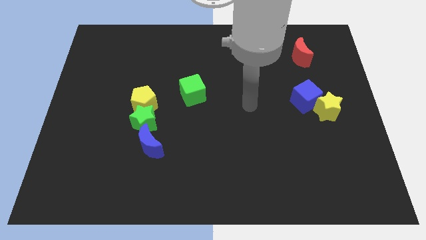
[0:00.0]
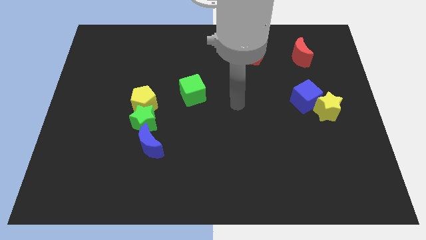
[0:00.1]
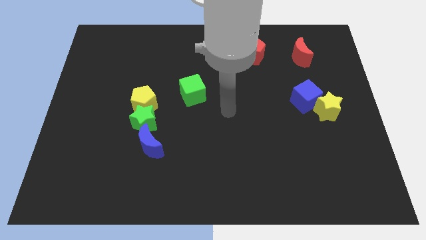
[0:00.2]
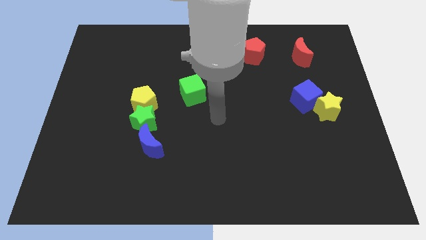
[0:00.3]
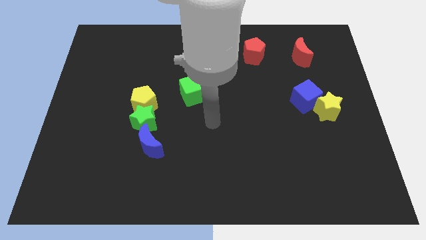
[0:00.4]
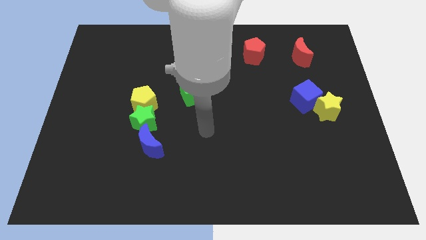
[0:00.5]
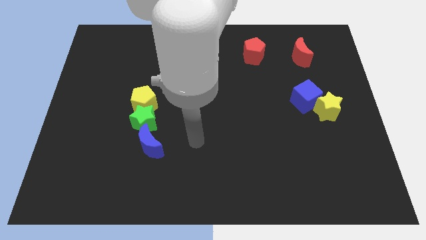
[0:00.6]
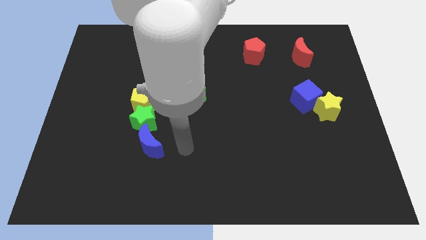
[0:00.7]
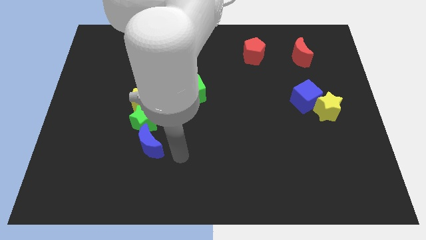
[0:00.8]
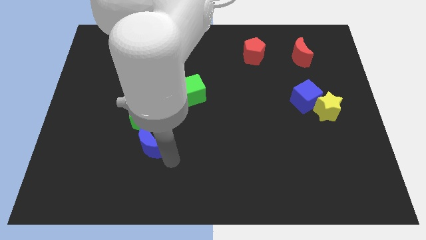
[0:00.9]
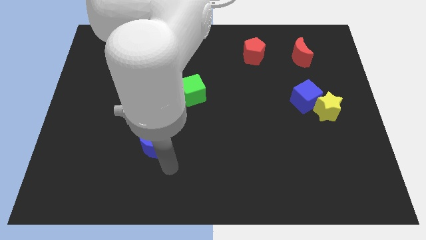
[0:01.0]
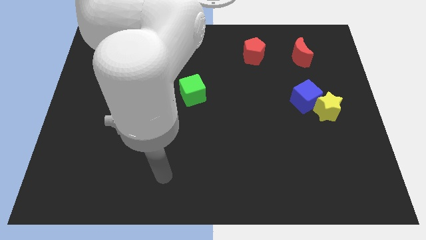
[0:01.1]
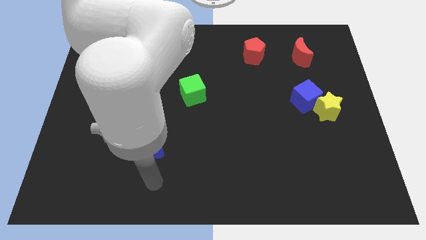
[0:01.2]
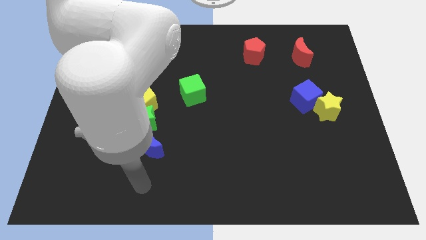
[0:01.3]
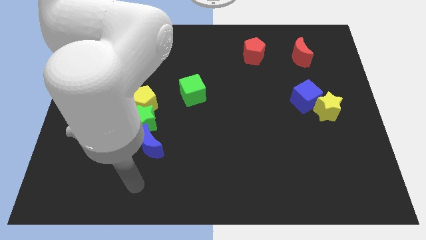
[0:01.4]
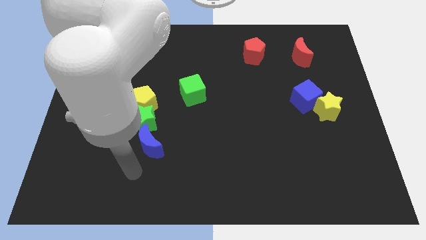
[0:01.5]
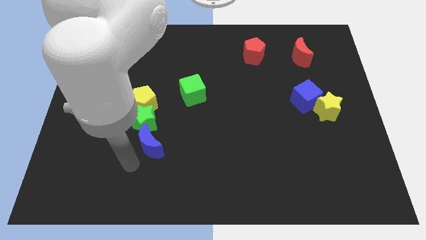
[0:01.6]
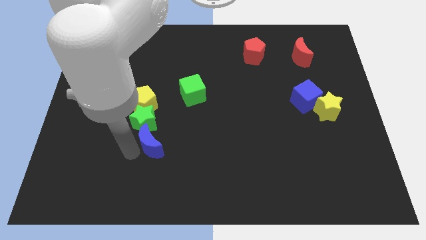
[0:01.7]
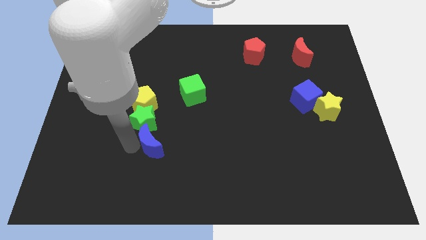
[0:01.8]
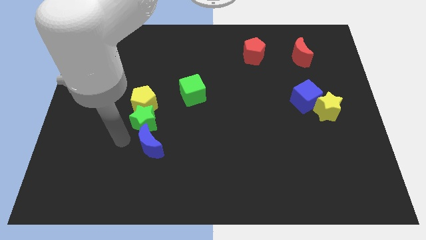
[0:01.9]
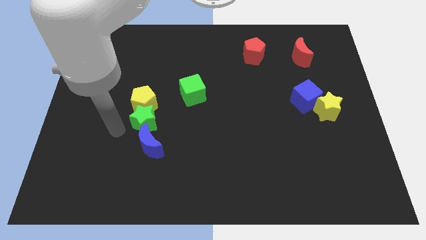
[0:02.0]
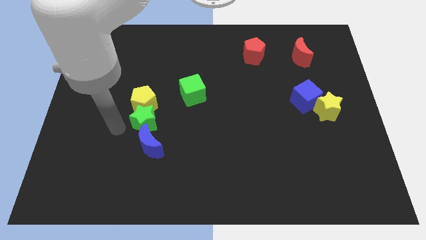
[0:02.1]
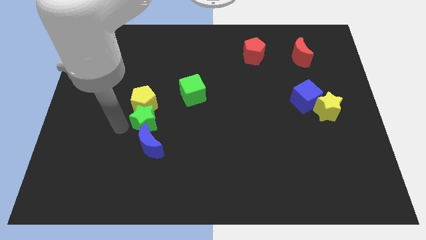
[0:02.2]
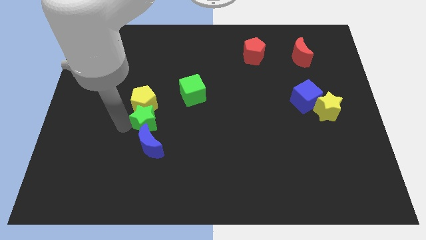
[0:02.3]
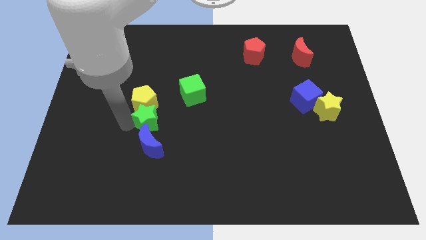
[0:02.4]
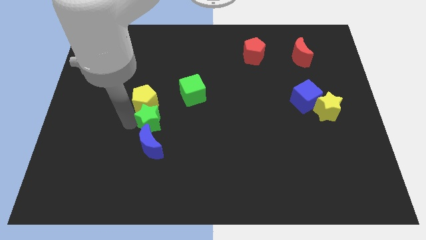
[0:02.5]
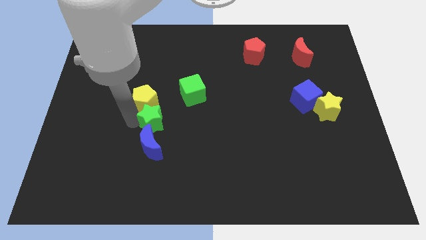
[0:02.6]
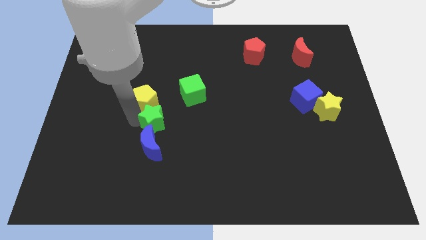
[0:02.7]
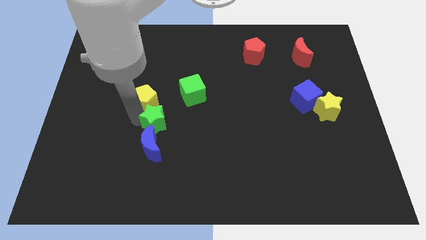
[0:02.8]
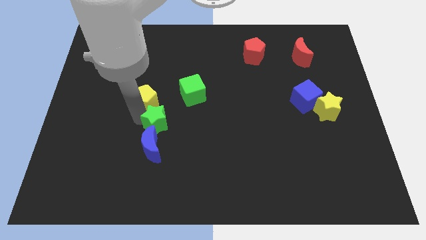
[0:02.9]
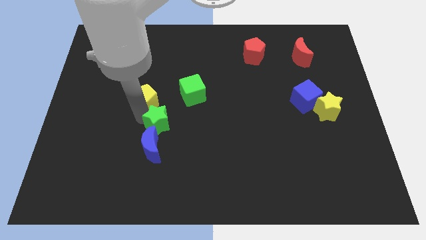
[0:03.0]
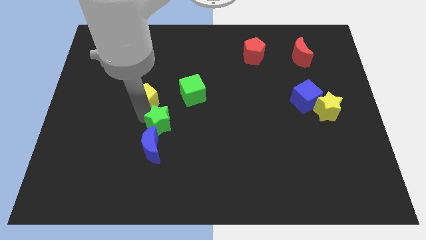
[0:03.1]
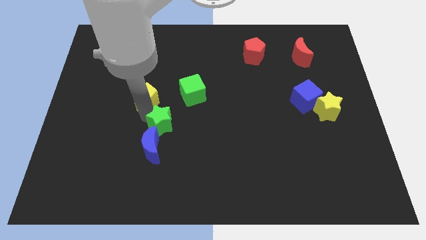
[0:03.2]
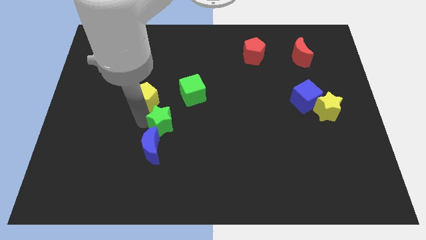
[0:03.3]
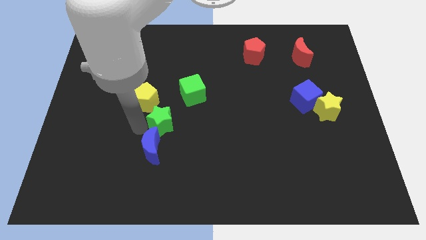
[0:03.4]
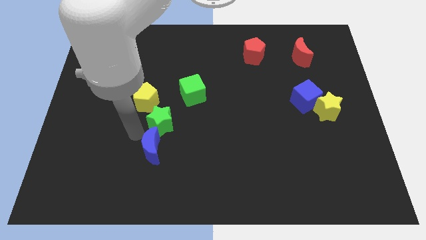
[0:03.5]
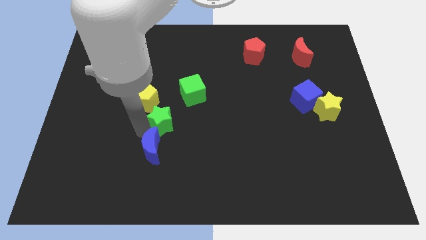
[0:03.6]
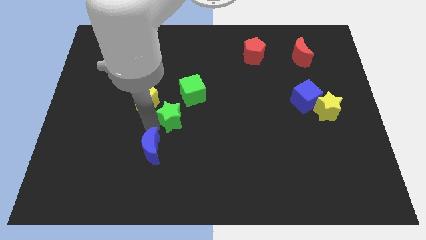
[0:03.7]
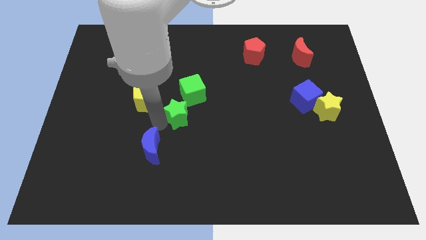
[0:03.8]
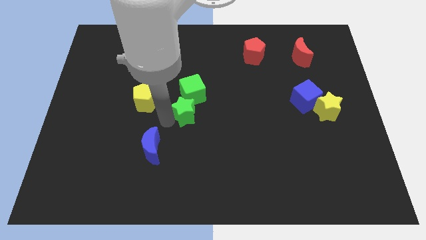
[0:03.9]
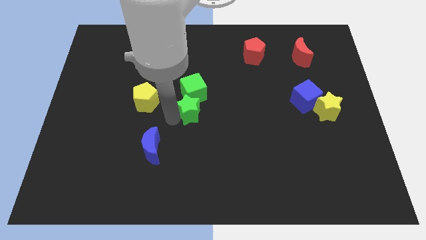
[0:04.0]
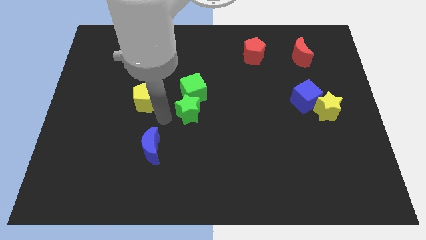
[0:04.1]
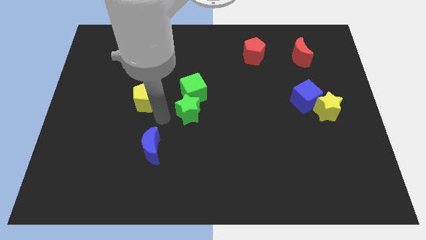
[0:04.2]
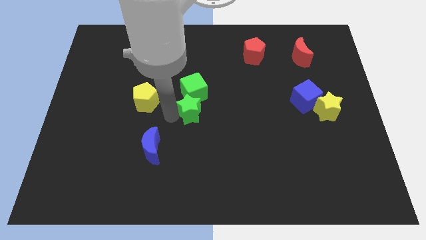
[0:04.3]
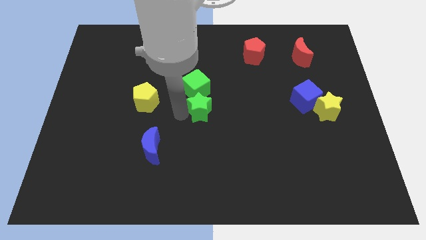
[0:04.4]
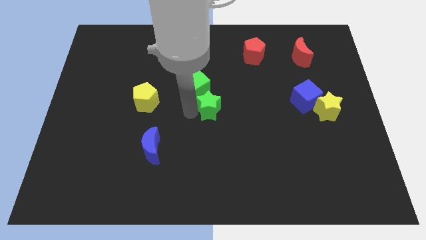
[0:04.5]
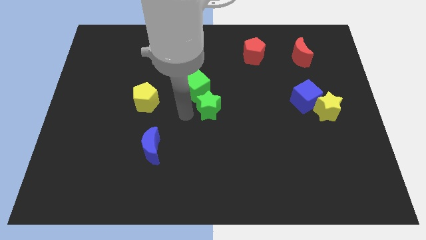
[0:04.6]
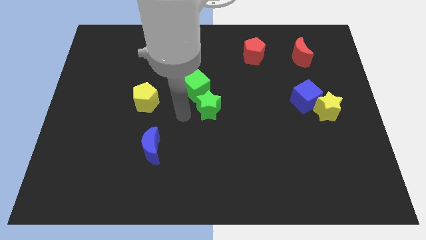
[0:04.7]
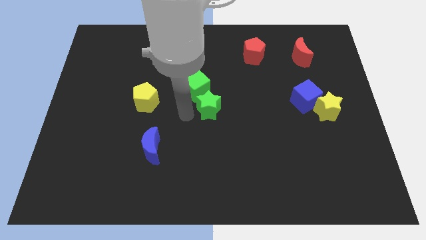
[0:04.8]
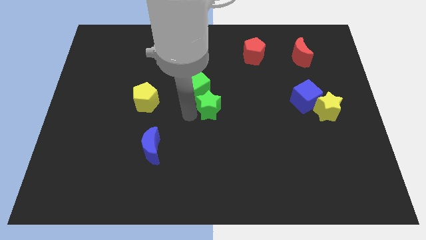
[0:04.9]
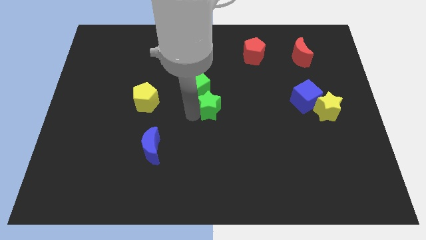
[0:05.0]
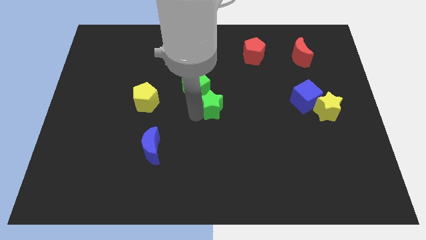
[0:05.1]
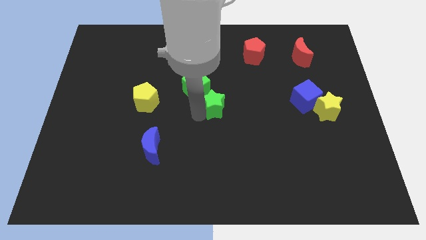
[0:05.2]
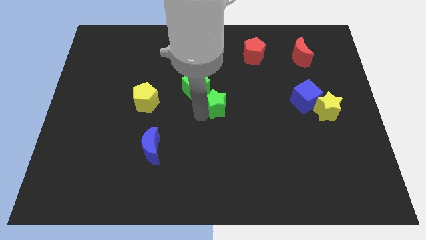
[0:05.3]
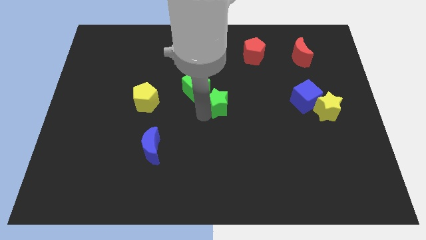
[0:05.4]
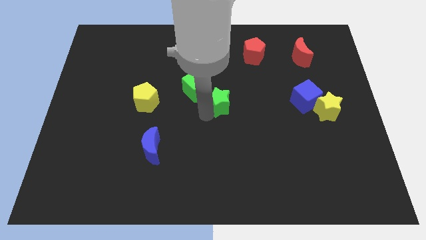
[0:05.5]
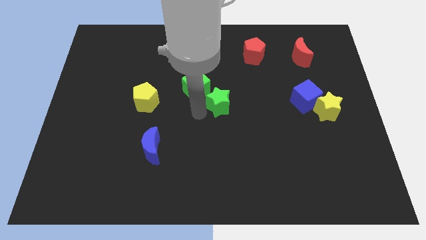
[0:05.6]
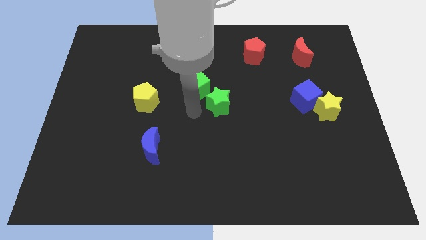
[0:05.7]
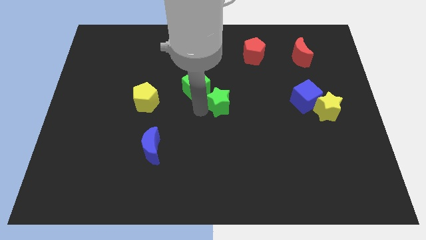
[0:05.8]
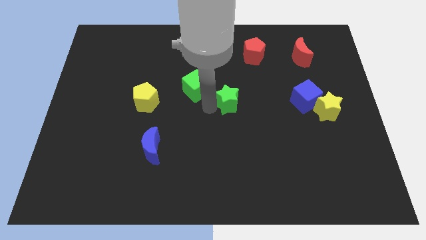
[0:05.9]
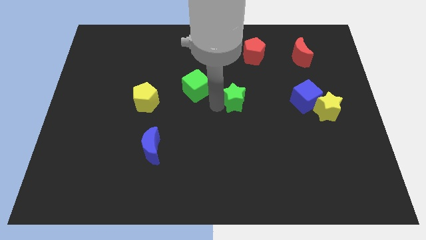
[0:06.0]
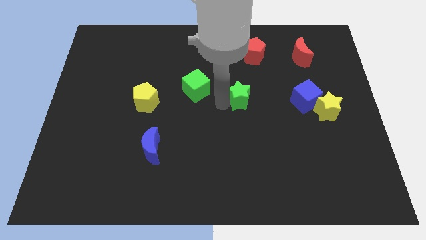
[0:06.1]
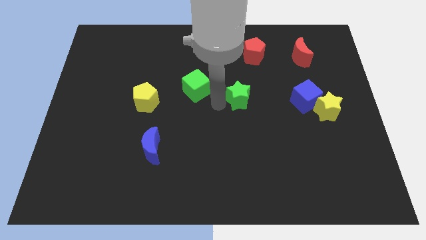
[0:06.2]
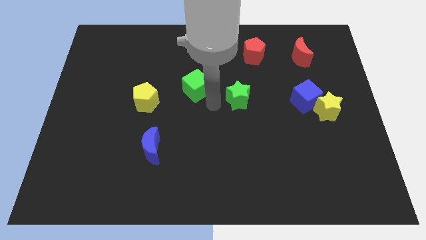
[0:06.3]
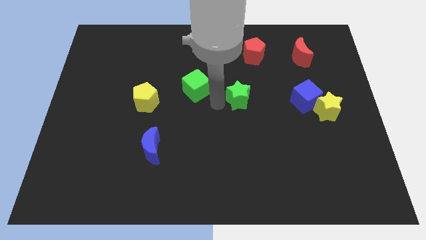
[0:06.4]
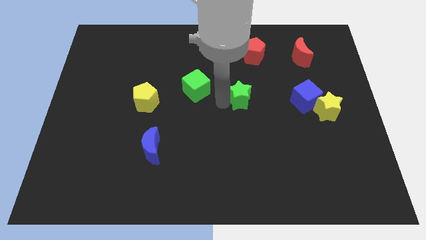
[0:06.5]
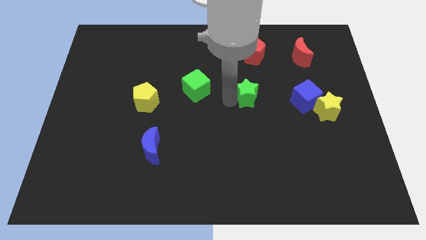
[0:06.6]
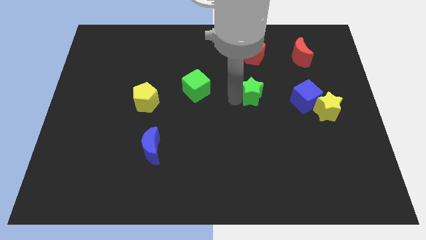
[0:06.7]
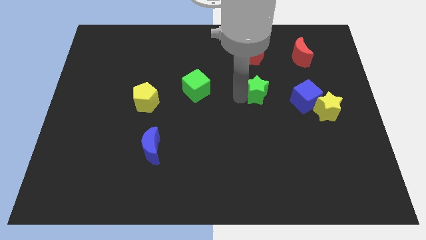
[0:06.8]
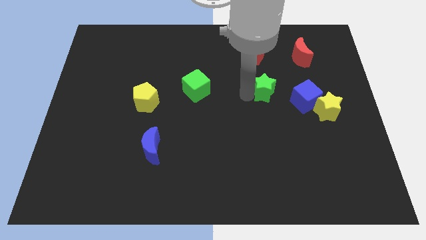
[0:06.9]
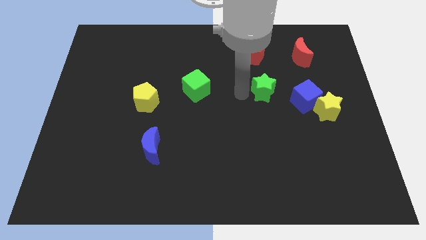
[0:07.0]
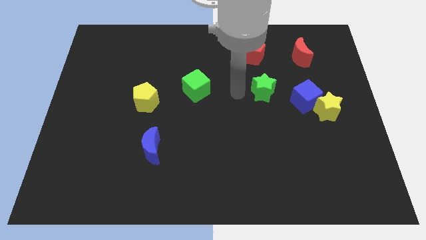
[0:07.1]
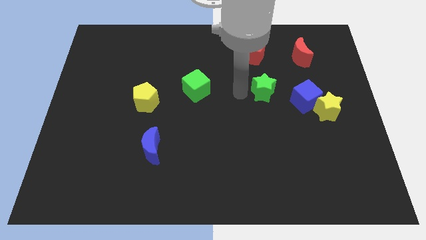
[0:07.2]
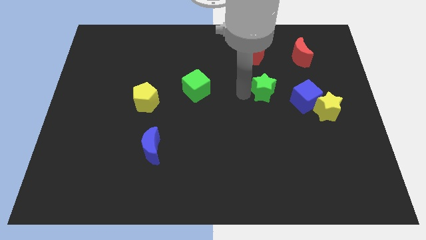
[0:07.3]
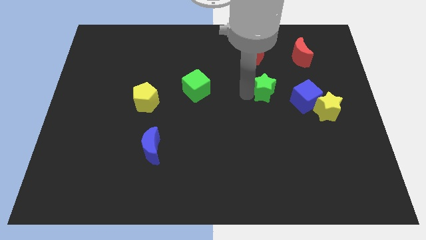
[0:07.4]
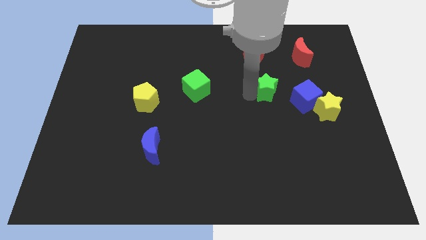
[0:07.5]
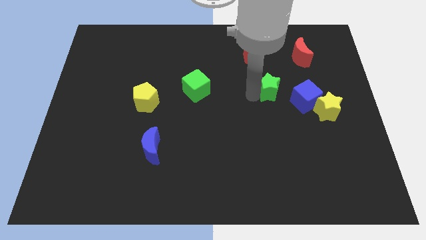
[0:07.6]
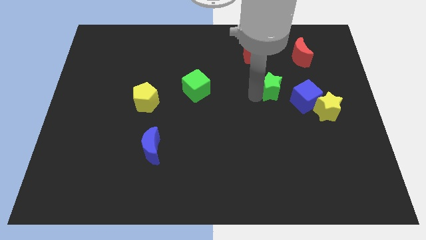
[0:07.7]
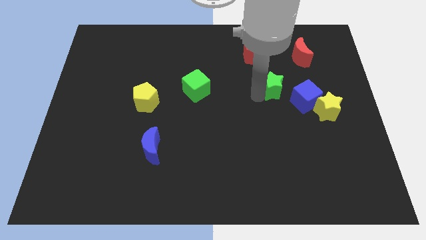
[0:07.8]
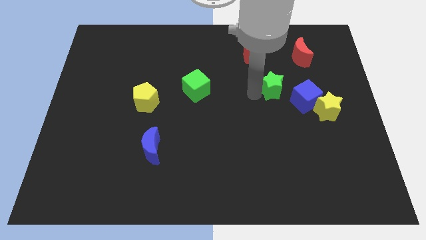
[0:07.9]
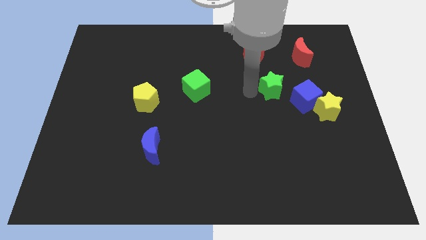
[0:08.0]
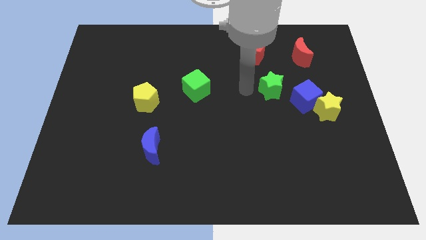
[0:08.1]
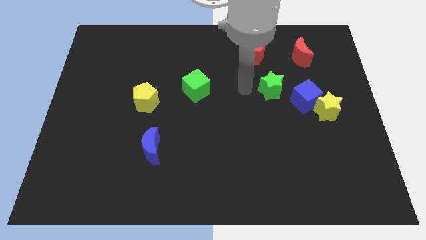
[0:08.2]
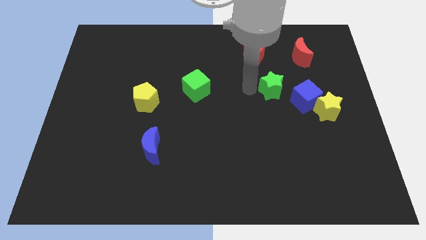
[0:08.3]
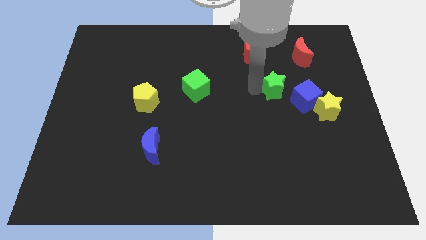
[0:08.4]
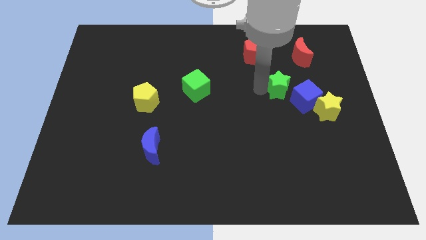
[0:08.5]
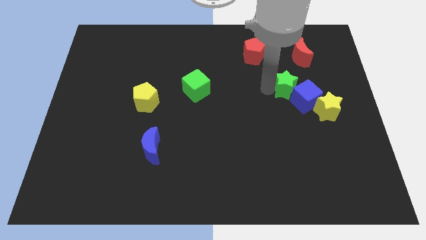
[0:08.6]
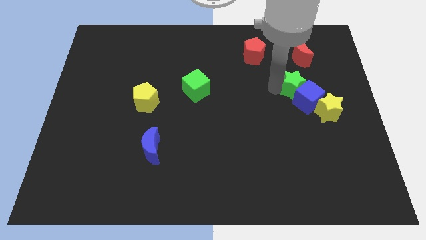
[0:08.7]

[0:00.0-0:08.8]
push the green star to the bottom of the red moon
